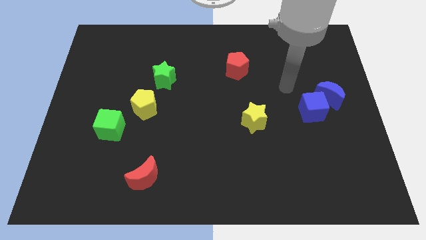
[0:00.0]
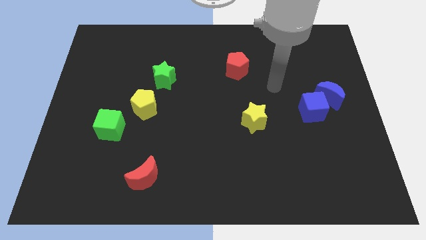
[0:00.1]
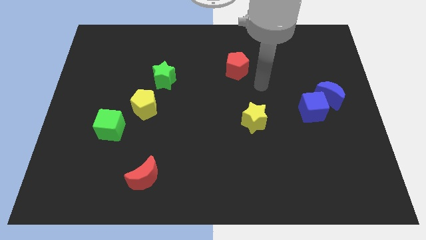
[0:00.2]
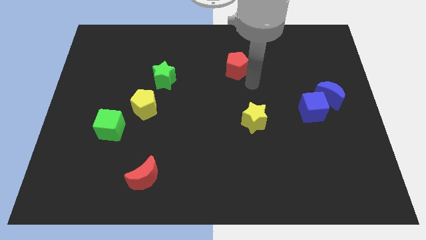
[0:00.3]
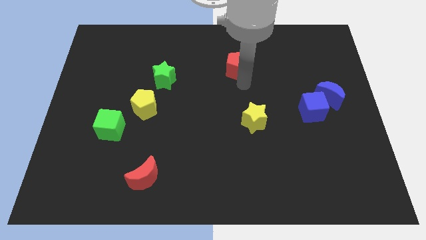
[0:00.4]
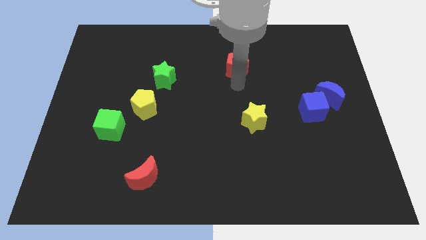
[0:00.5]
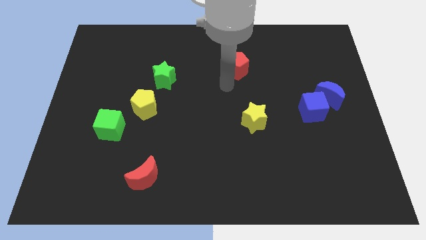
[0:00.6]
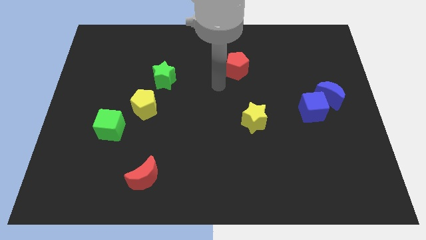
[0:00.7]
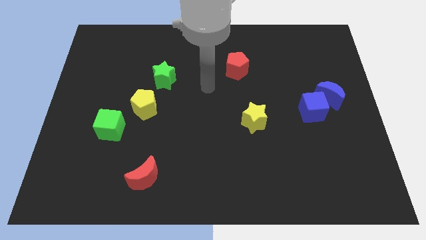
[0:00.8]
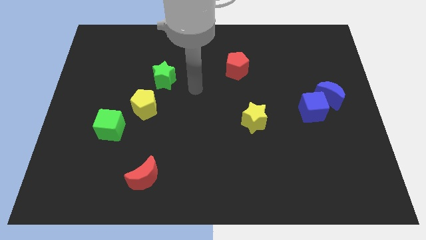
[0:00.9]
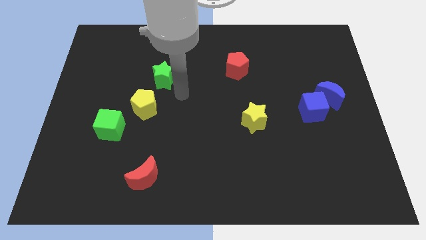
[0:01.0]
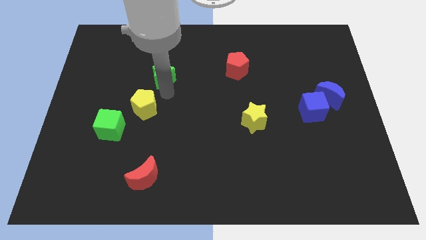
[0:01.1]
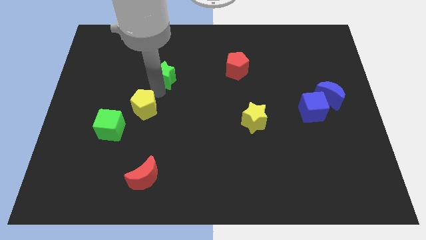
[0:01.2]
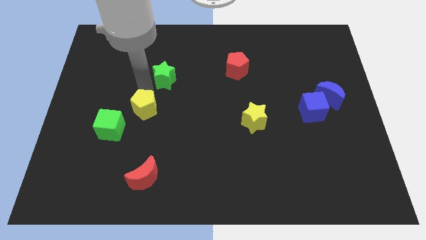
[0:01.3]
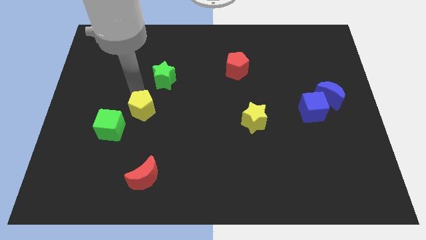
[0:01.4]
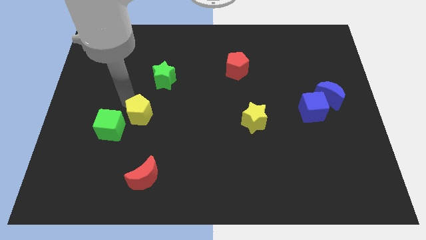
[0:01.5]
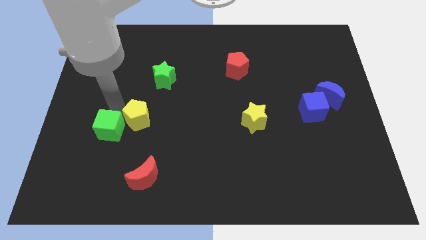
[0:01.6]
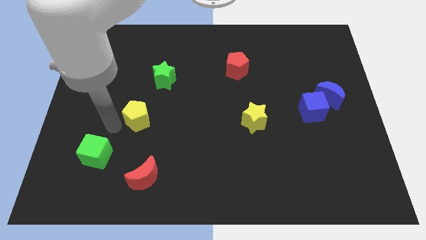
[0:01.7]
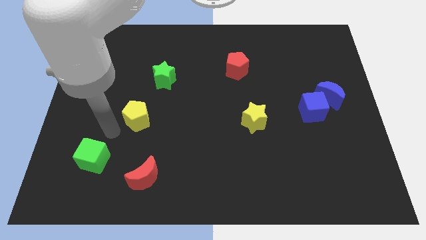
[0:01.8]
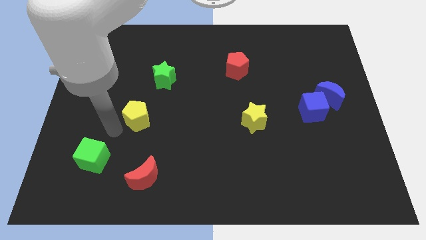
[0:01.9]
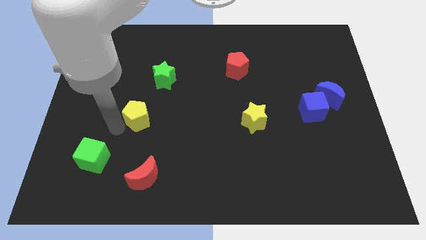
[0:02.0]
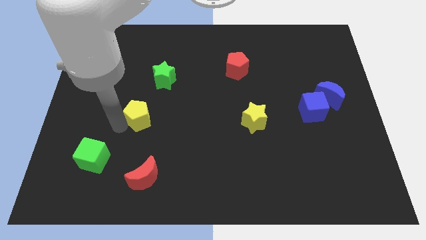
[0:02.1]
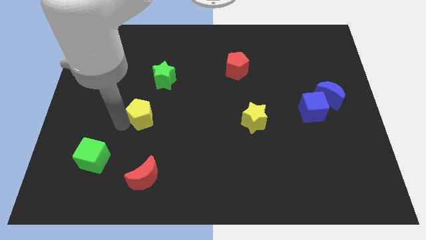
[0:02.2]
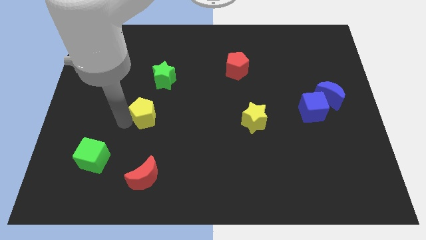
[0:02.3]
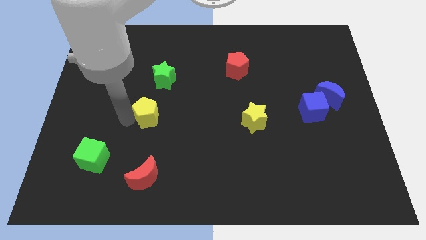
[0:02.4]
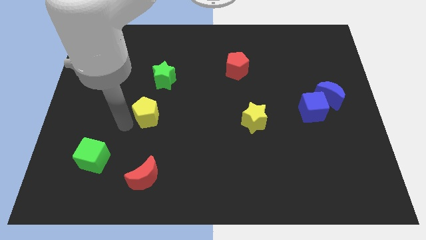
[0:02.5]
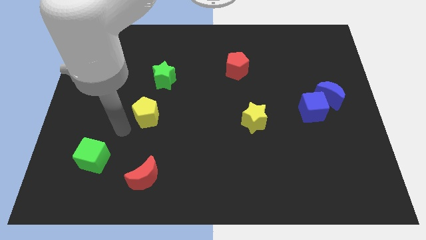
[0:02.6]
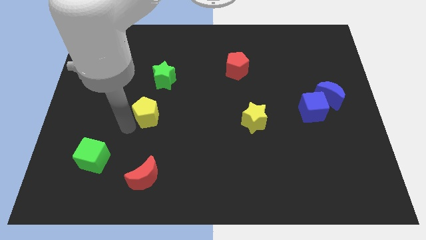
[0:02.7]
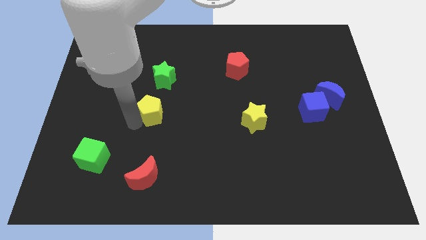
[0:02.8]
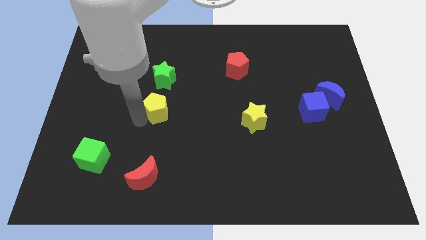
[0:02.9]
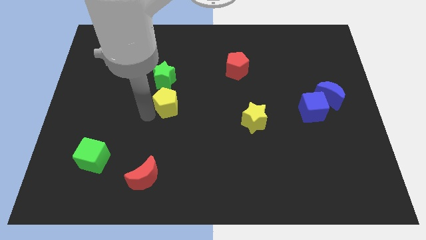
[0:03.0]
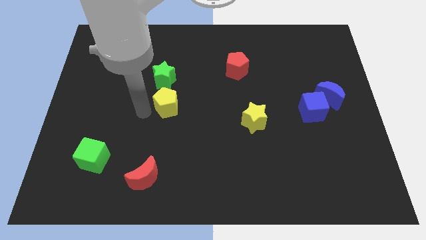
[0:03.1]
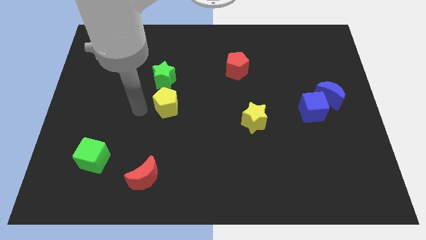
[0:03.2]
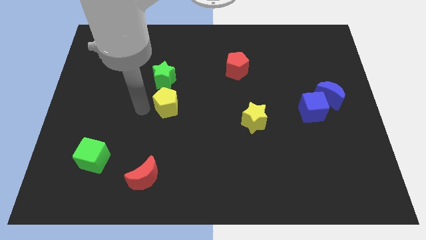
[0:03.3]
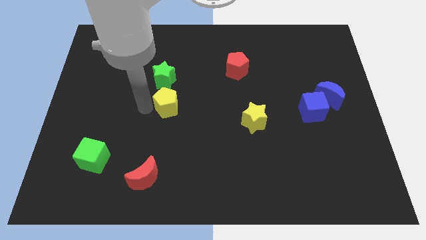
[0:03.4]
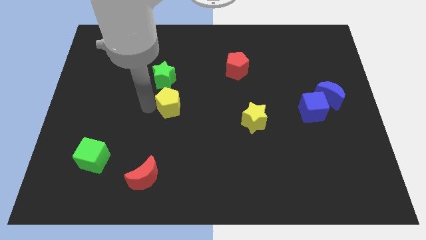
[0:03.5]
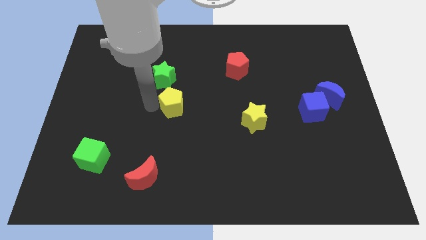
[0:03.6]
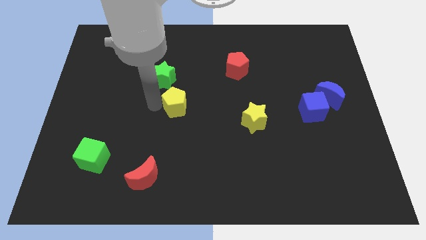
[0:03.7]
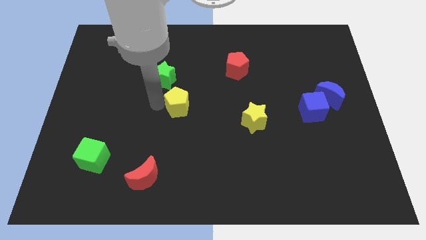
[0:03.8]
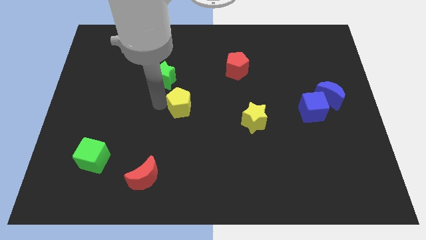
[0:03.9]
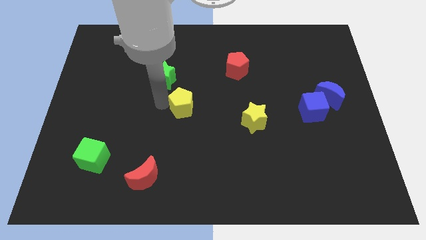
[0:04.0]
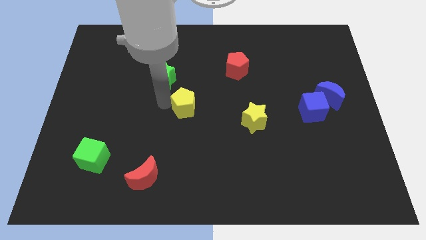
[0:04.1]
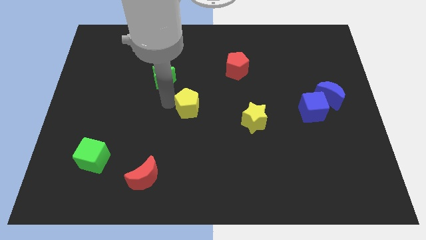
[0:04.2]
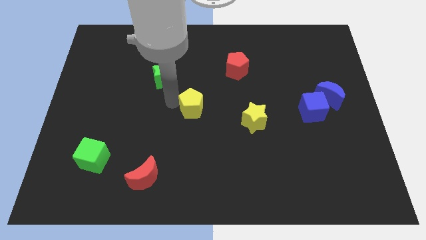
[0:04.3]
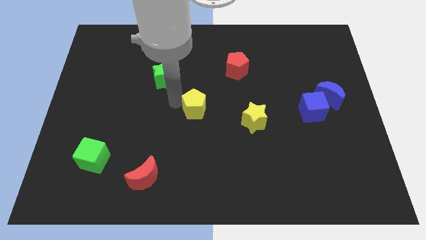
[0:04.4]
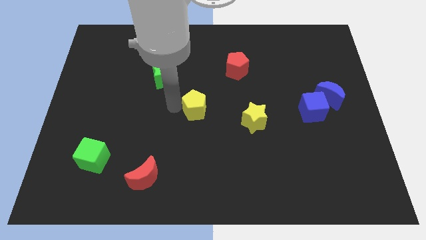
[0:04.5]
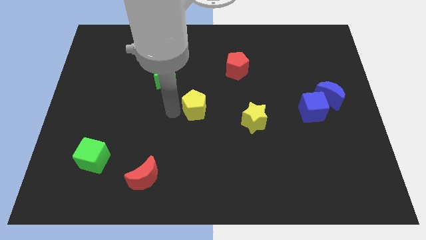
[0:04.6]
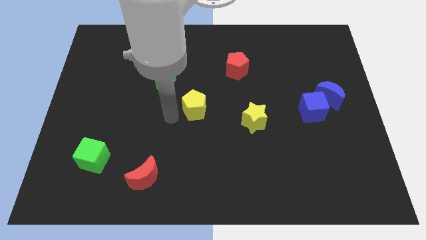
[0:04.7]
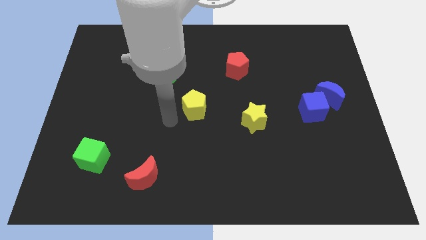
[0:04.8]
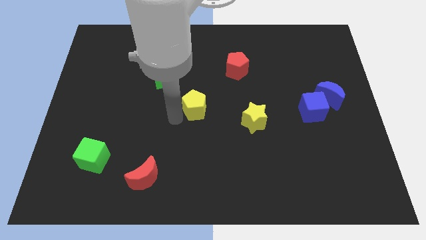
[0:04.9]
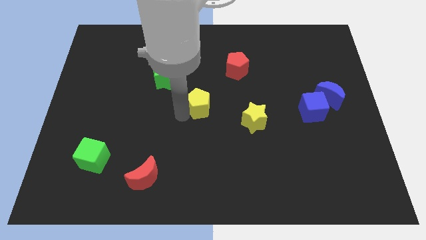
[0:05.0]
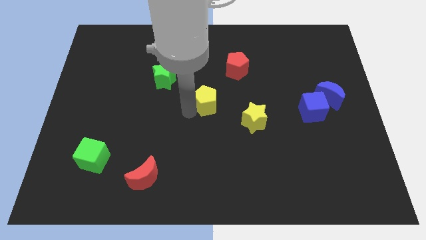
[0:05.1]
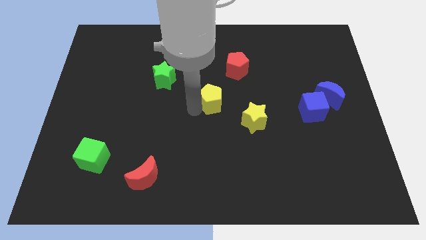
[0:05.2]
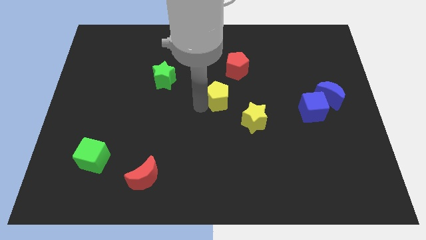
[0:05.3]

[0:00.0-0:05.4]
slide the yellow pentagon to the bottom side of the red pentagon

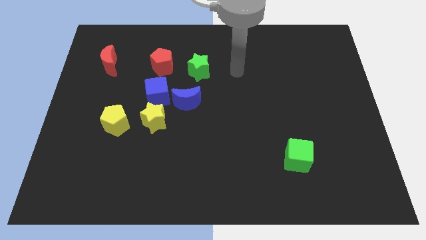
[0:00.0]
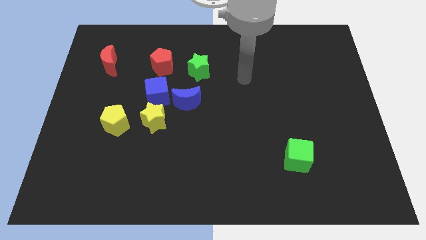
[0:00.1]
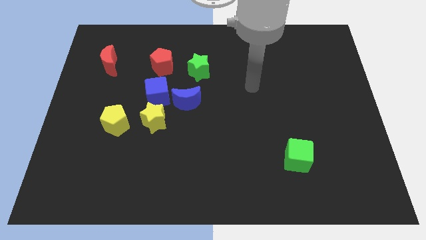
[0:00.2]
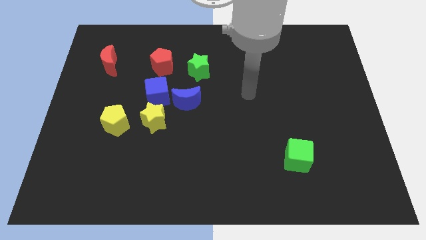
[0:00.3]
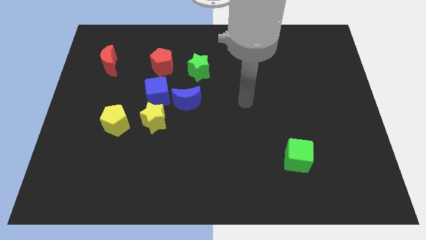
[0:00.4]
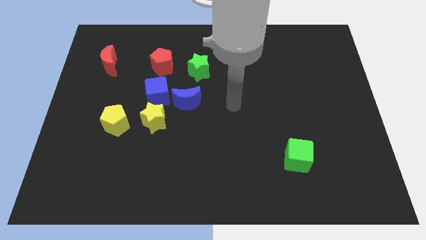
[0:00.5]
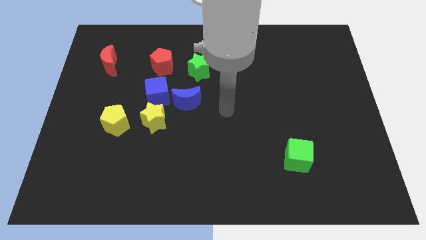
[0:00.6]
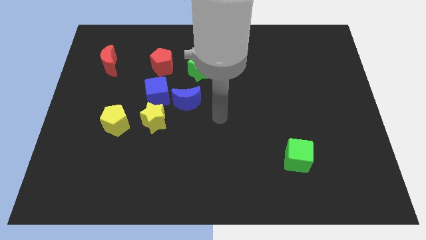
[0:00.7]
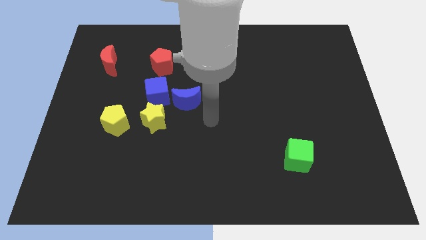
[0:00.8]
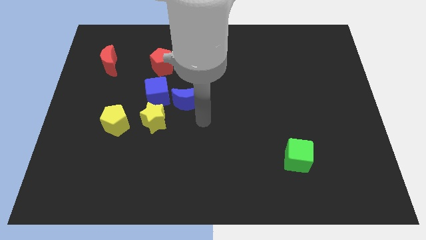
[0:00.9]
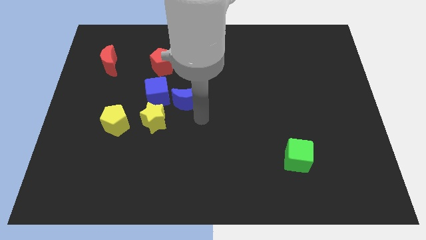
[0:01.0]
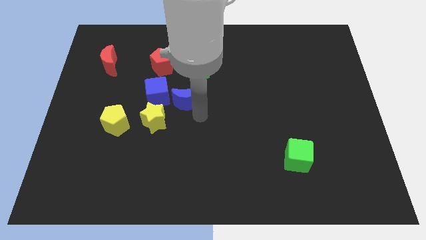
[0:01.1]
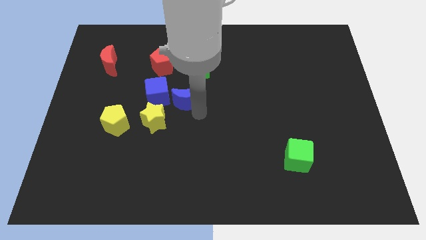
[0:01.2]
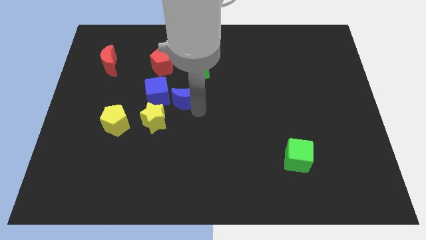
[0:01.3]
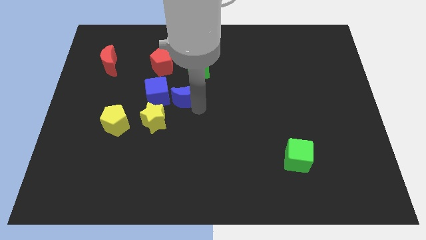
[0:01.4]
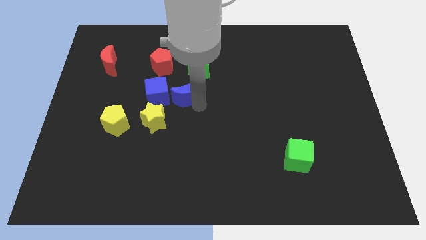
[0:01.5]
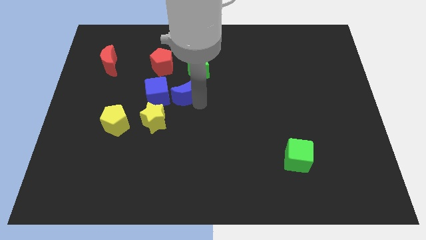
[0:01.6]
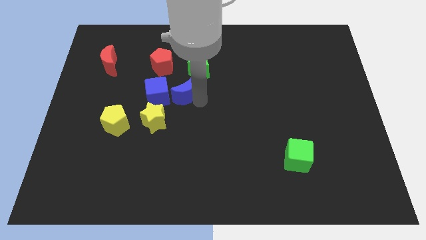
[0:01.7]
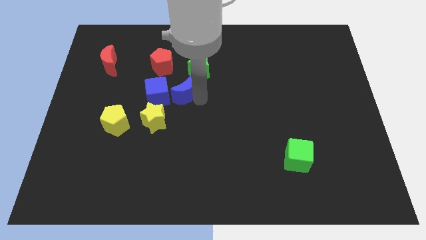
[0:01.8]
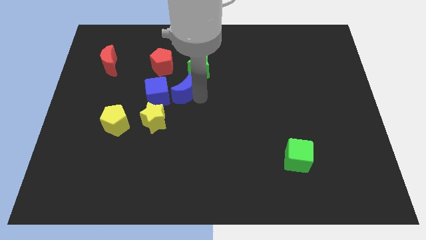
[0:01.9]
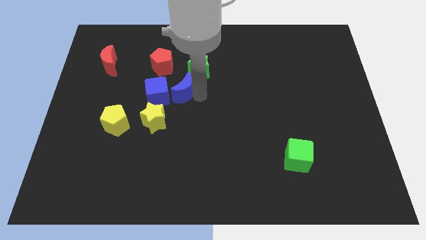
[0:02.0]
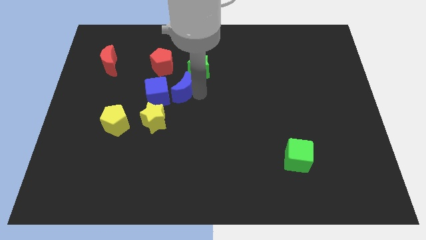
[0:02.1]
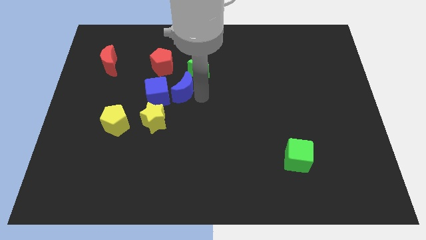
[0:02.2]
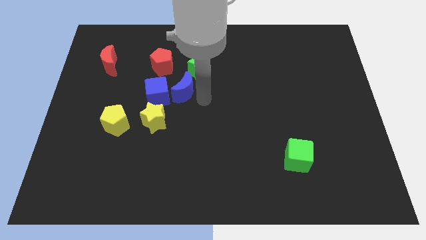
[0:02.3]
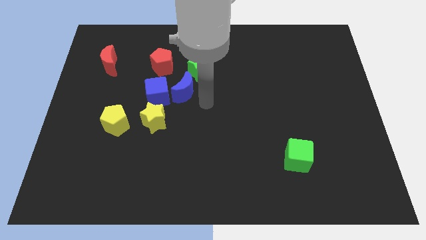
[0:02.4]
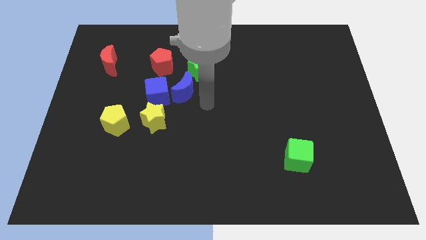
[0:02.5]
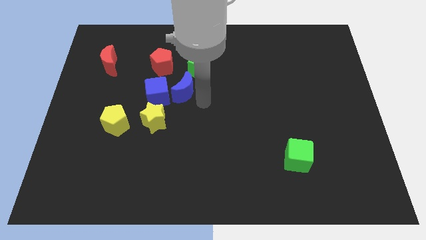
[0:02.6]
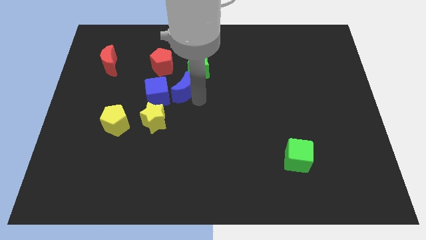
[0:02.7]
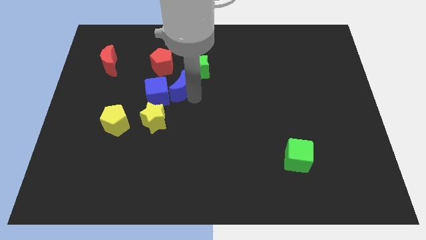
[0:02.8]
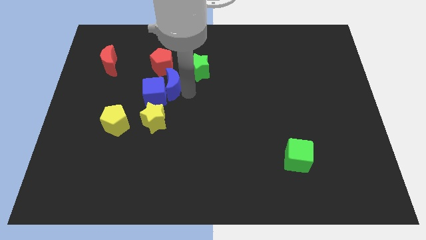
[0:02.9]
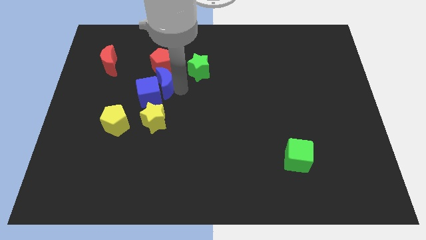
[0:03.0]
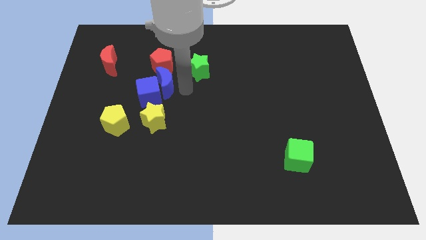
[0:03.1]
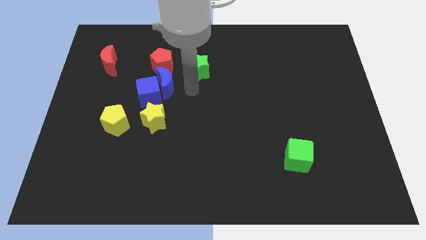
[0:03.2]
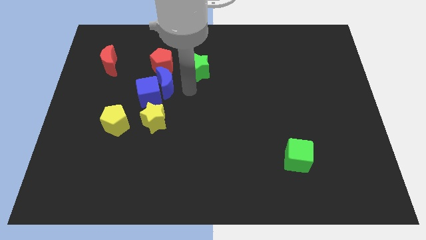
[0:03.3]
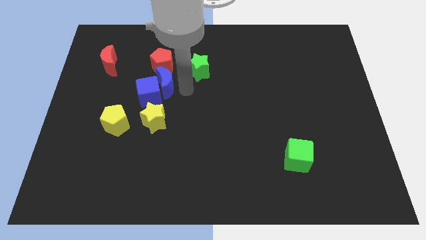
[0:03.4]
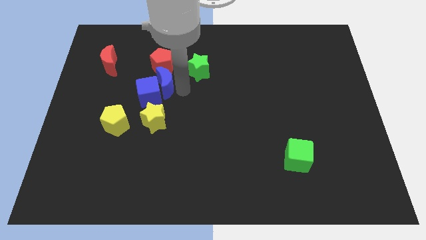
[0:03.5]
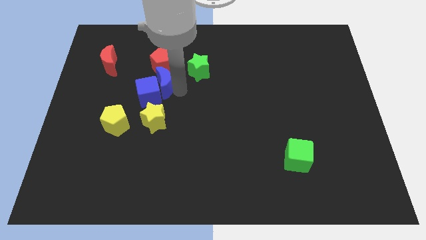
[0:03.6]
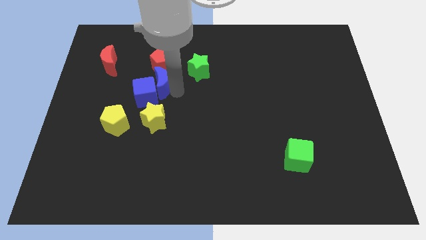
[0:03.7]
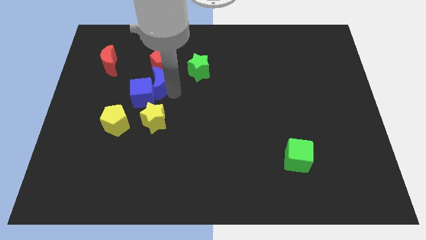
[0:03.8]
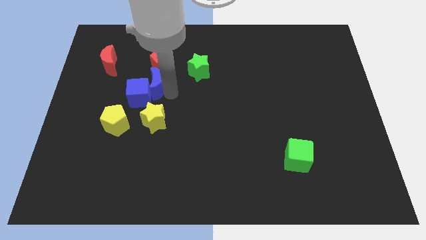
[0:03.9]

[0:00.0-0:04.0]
push the blue moon diagonally down and to the left of the red pentagon
